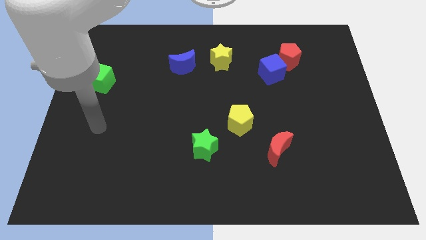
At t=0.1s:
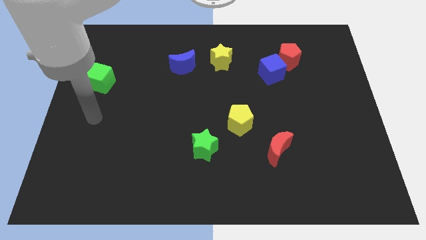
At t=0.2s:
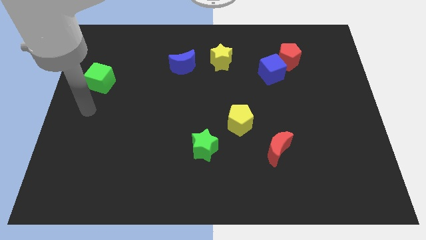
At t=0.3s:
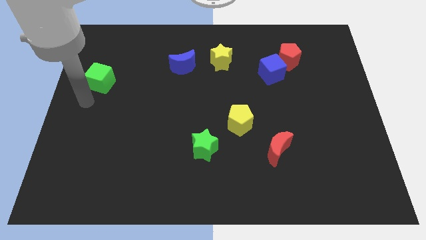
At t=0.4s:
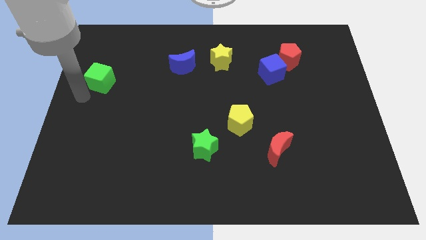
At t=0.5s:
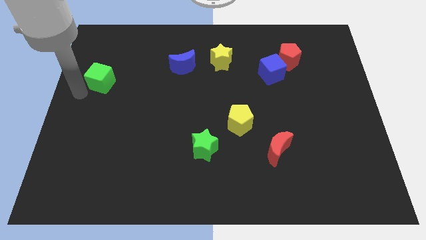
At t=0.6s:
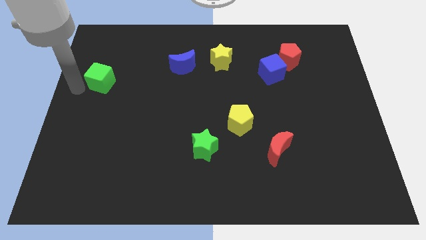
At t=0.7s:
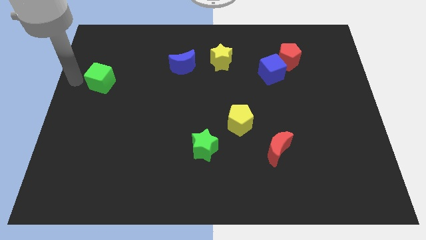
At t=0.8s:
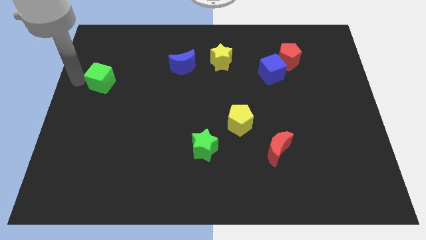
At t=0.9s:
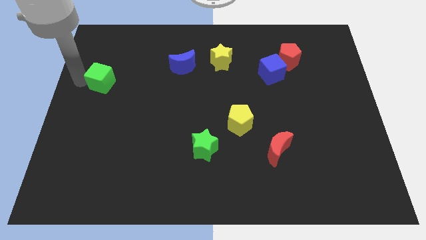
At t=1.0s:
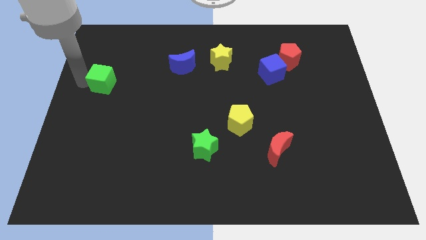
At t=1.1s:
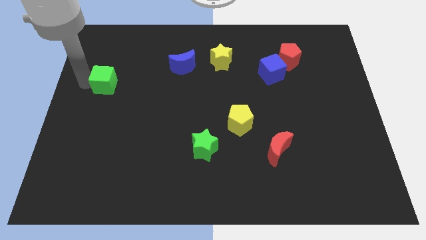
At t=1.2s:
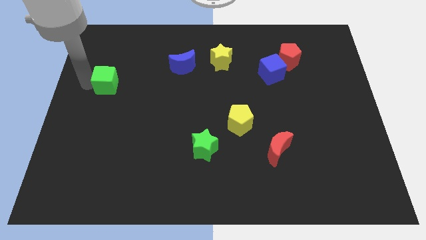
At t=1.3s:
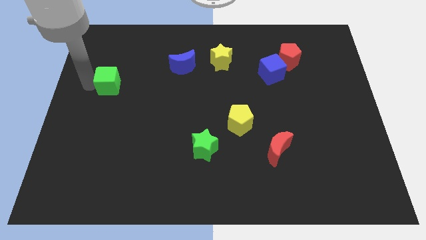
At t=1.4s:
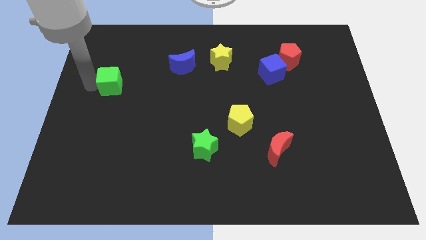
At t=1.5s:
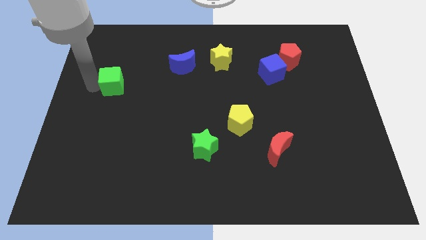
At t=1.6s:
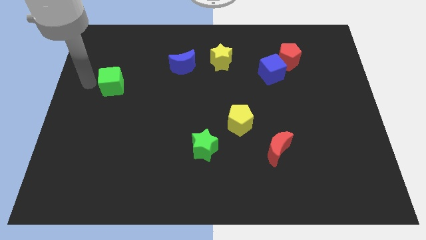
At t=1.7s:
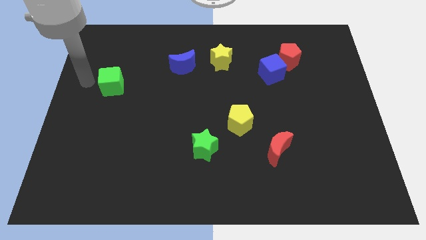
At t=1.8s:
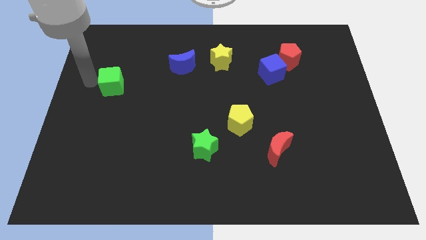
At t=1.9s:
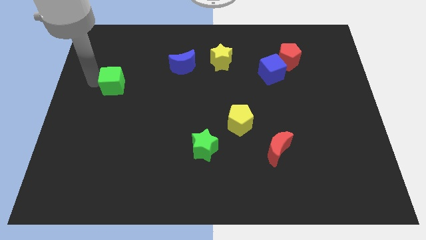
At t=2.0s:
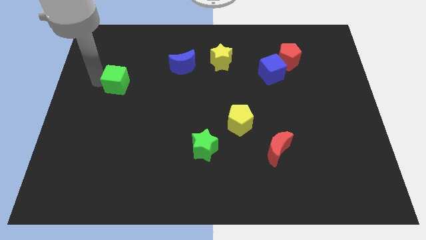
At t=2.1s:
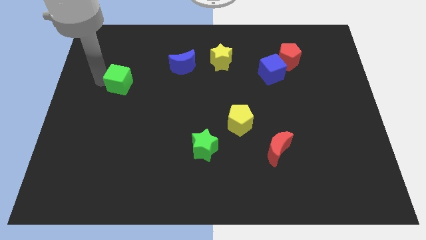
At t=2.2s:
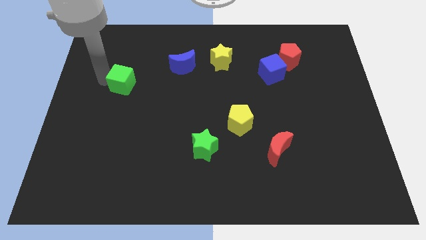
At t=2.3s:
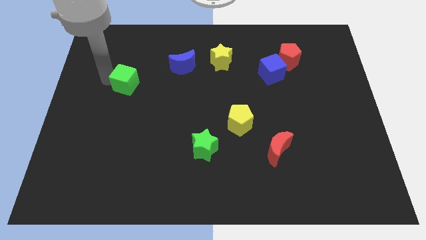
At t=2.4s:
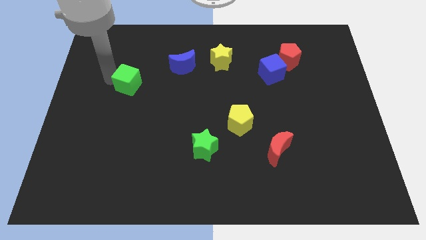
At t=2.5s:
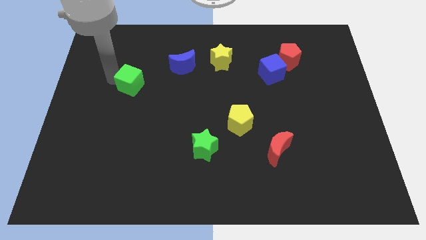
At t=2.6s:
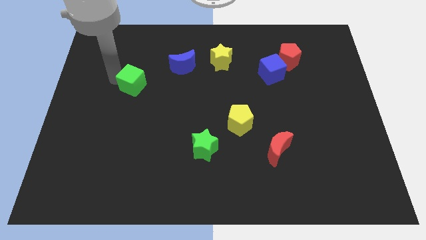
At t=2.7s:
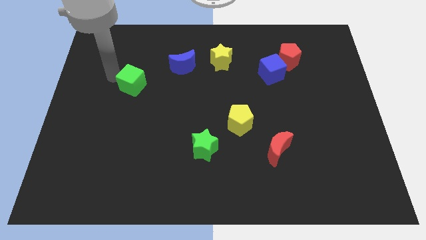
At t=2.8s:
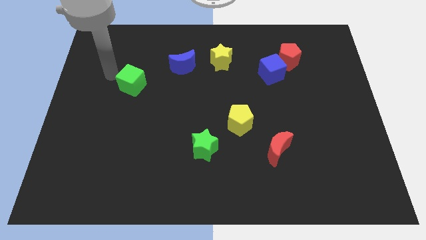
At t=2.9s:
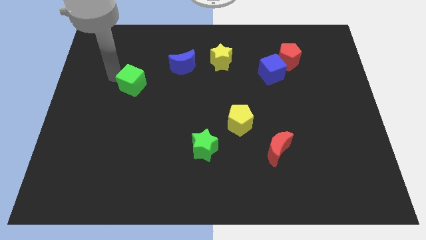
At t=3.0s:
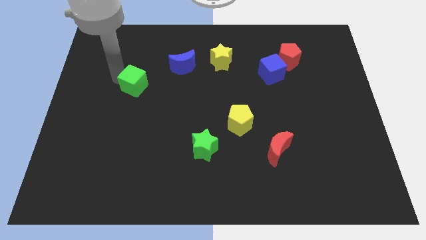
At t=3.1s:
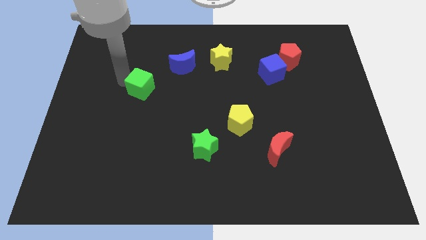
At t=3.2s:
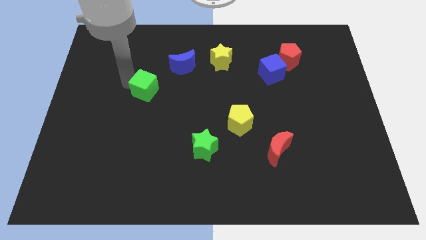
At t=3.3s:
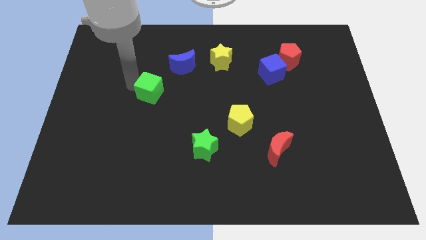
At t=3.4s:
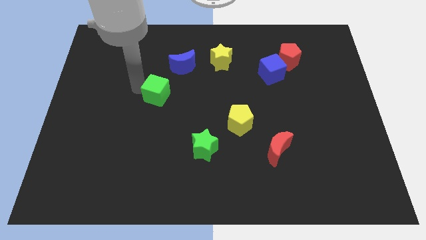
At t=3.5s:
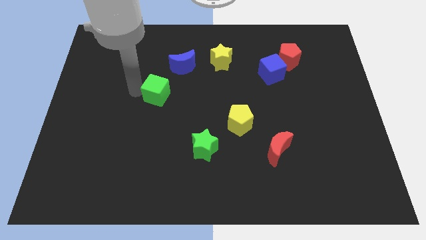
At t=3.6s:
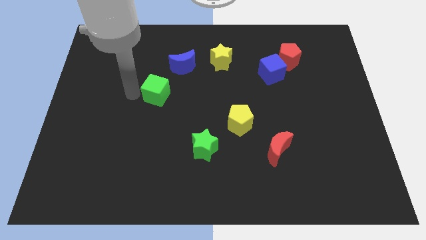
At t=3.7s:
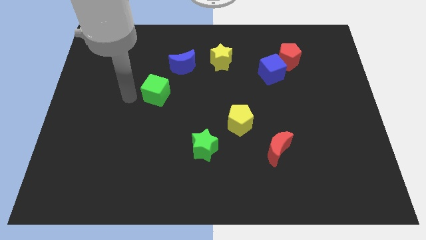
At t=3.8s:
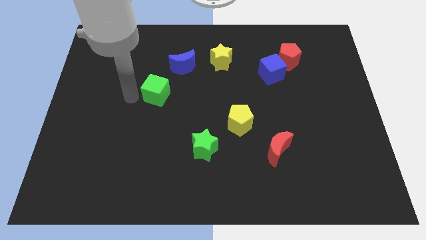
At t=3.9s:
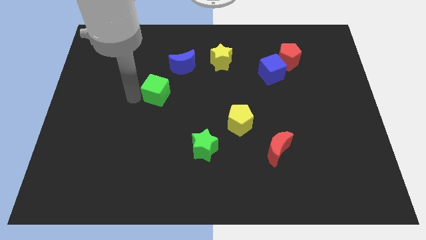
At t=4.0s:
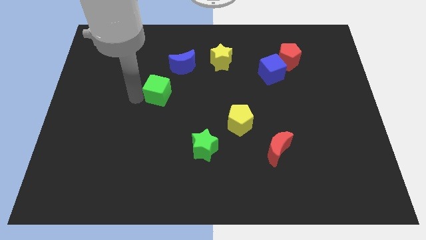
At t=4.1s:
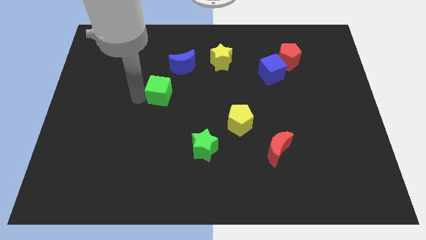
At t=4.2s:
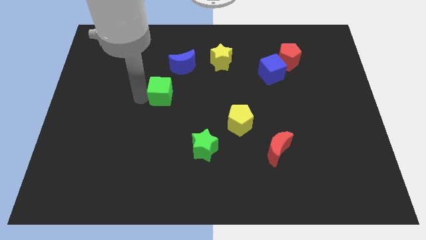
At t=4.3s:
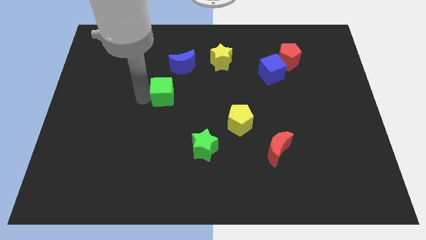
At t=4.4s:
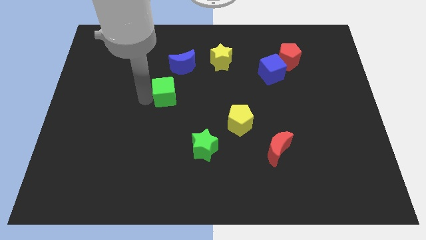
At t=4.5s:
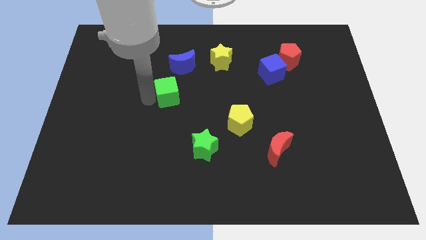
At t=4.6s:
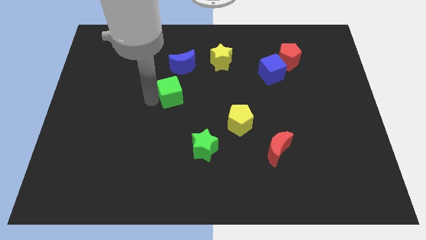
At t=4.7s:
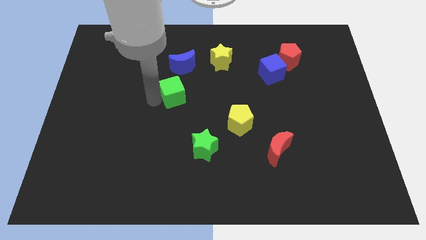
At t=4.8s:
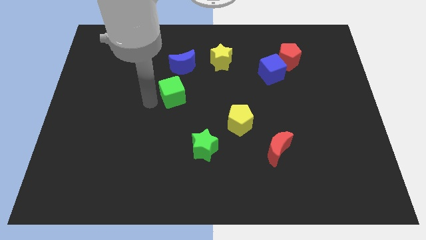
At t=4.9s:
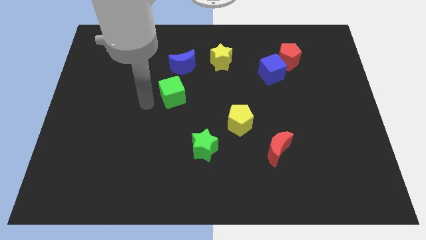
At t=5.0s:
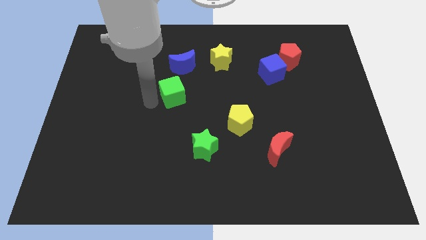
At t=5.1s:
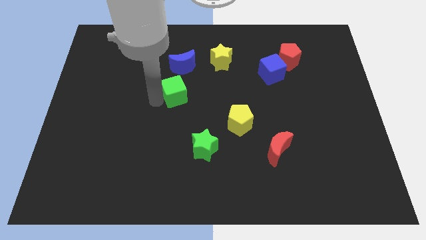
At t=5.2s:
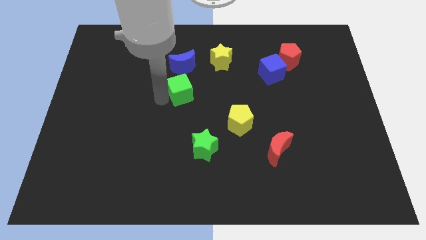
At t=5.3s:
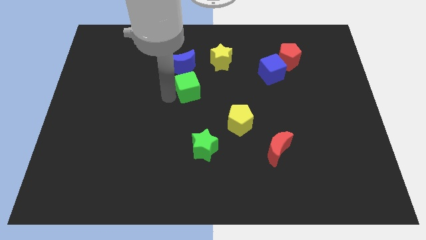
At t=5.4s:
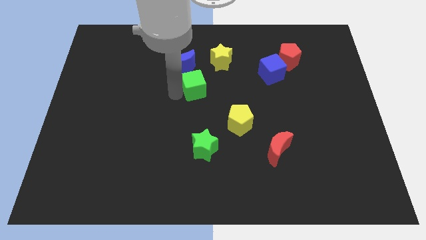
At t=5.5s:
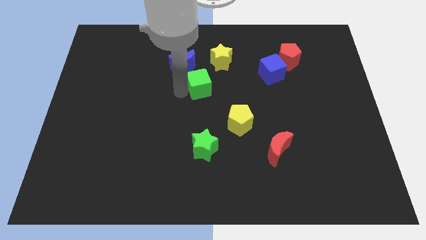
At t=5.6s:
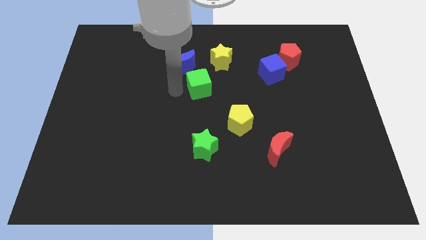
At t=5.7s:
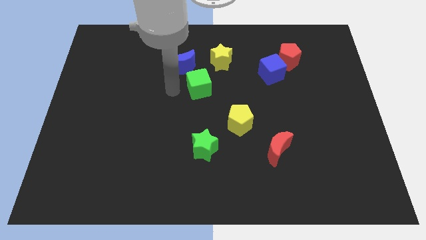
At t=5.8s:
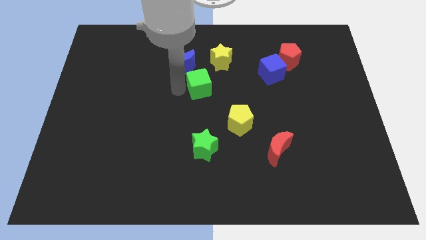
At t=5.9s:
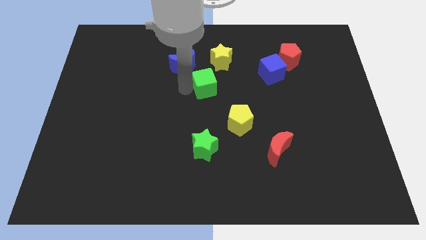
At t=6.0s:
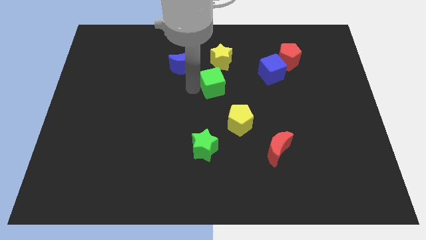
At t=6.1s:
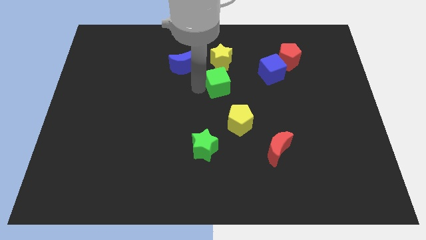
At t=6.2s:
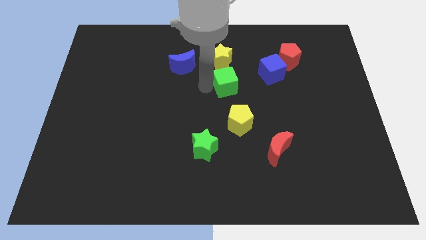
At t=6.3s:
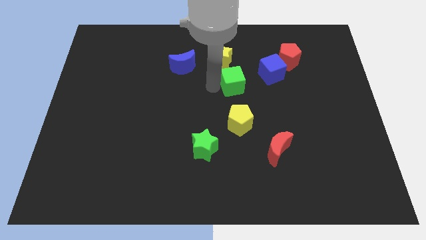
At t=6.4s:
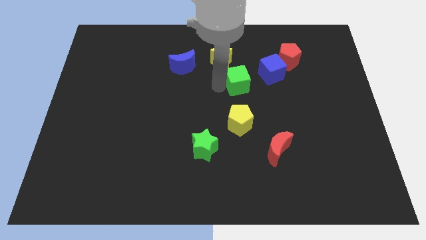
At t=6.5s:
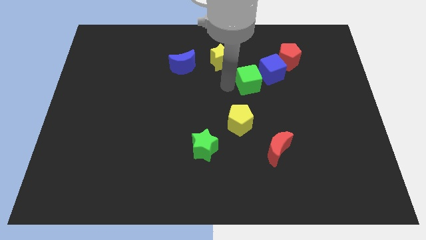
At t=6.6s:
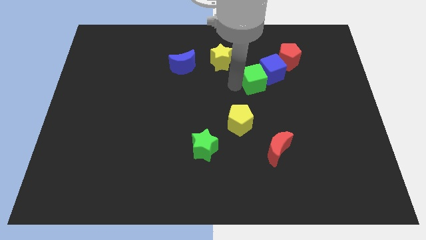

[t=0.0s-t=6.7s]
slide the green cube close to the blue cube

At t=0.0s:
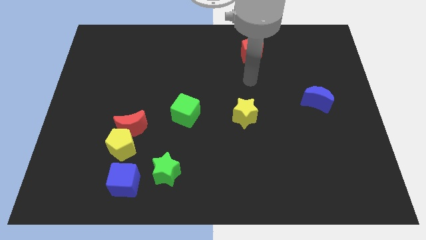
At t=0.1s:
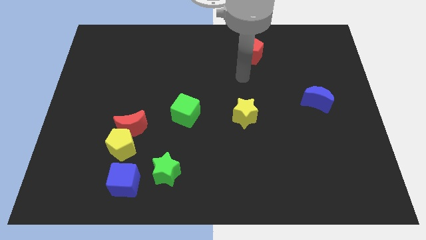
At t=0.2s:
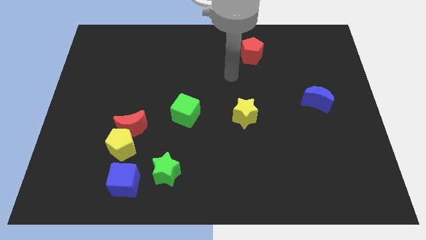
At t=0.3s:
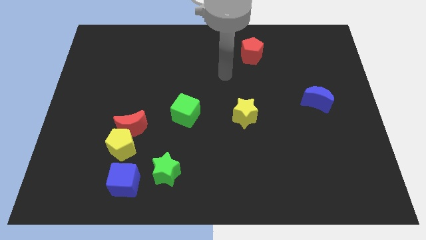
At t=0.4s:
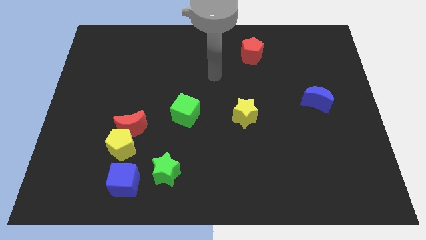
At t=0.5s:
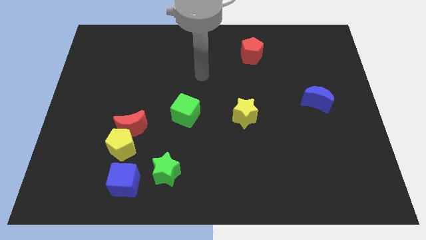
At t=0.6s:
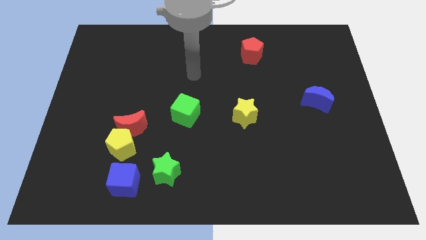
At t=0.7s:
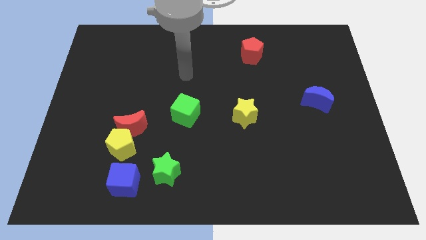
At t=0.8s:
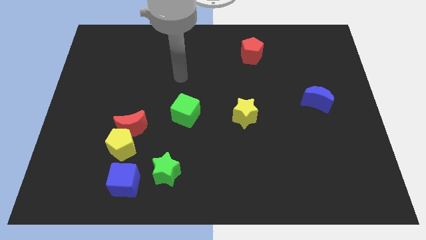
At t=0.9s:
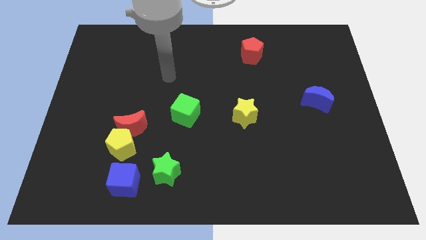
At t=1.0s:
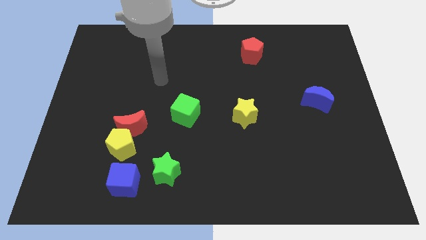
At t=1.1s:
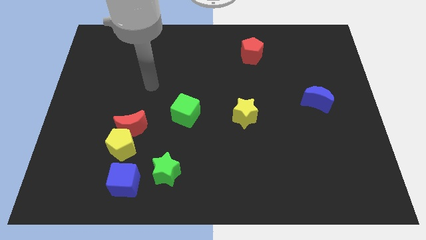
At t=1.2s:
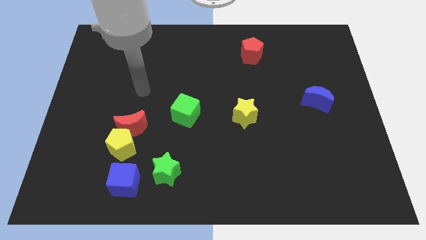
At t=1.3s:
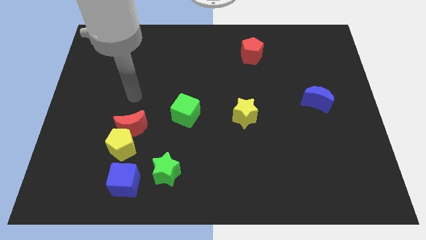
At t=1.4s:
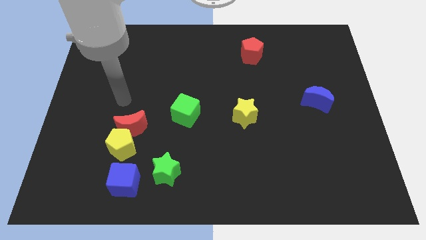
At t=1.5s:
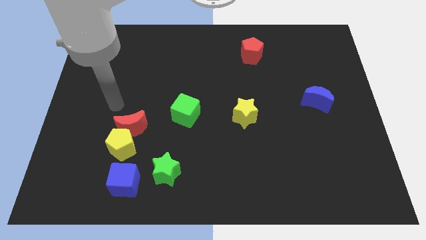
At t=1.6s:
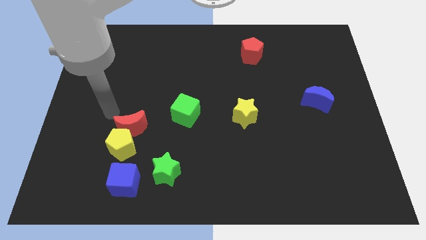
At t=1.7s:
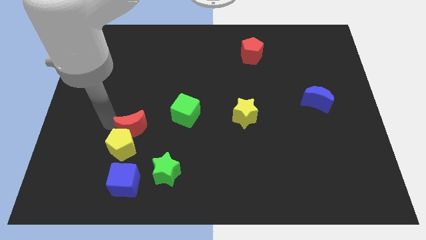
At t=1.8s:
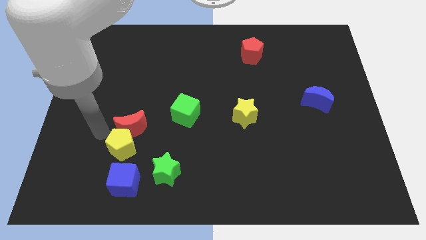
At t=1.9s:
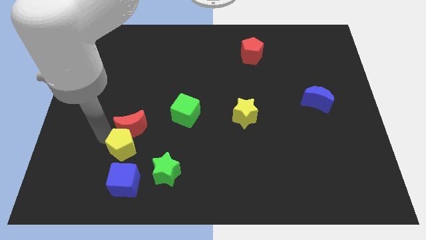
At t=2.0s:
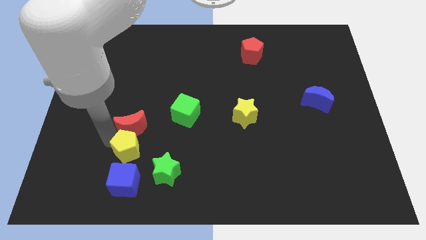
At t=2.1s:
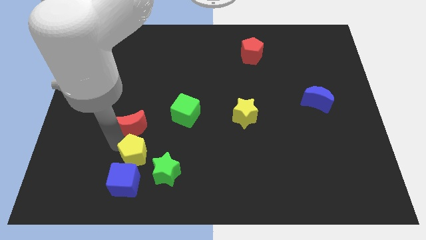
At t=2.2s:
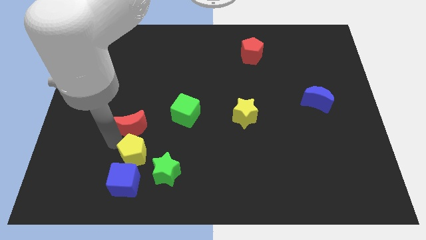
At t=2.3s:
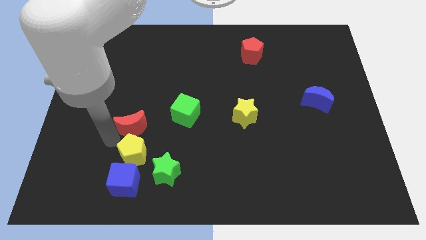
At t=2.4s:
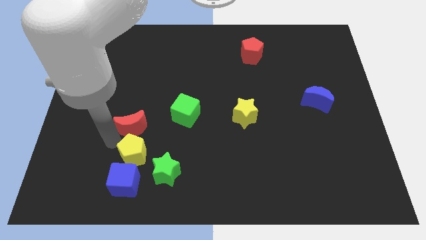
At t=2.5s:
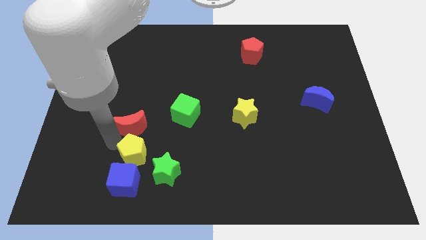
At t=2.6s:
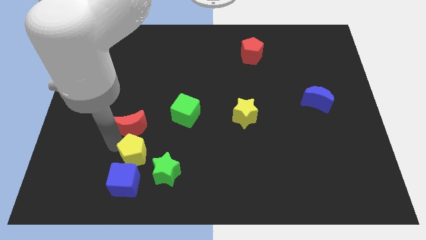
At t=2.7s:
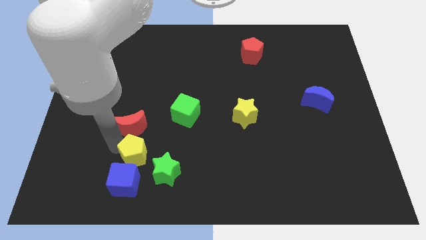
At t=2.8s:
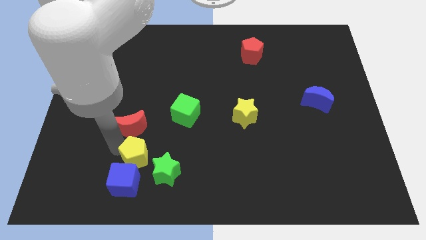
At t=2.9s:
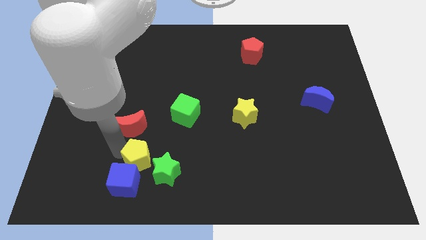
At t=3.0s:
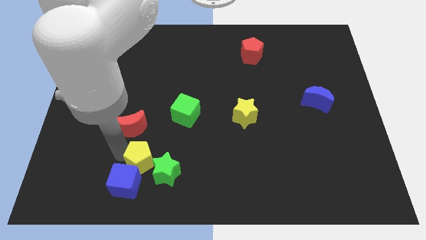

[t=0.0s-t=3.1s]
move the yellow pentagon to the green star
